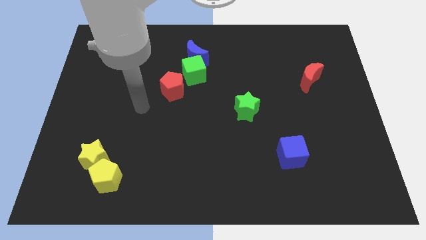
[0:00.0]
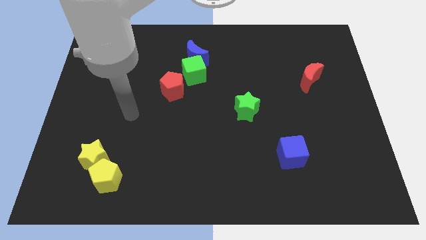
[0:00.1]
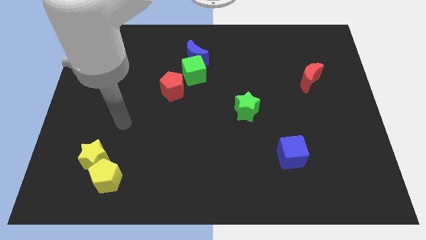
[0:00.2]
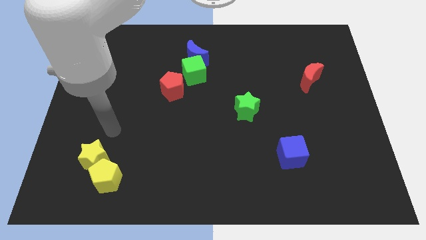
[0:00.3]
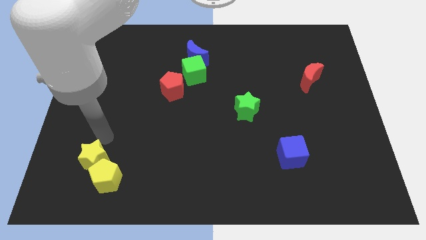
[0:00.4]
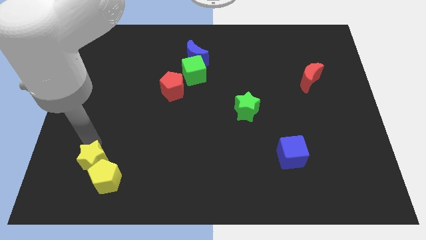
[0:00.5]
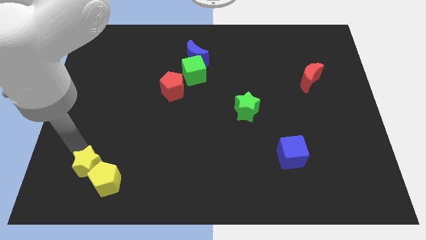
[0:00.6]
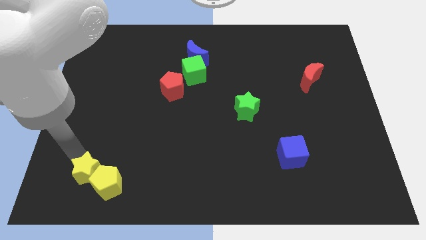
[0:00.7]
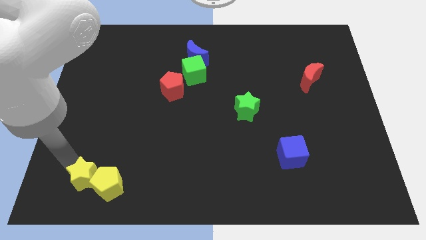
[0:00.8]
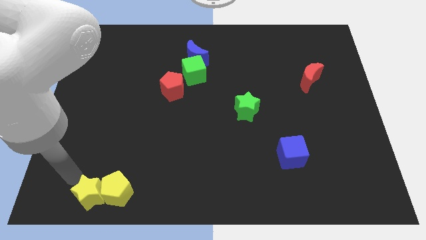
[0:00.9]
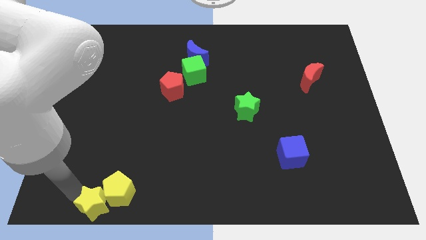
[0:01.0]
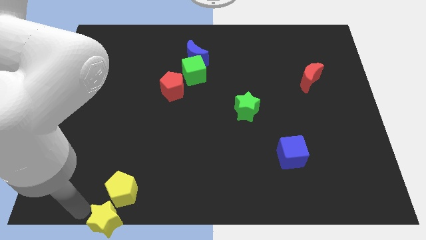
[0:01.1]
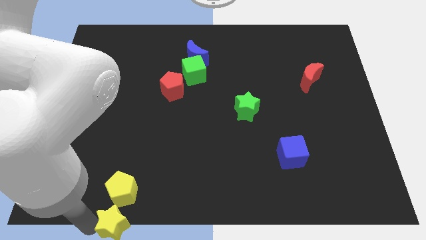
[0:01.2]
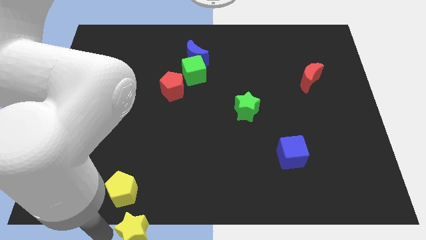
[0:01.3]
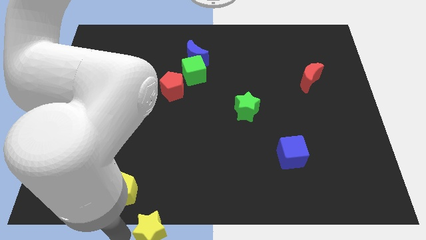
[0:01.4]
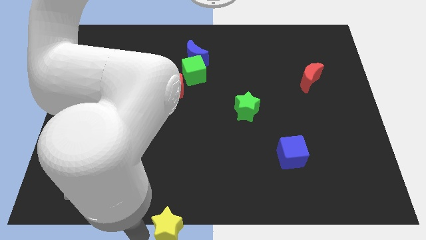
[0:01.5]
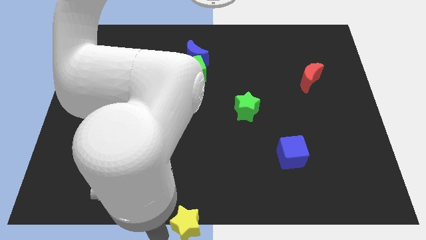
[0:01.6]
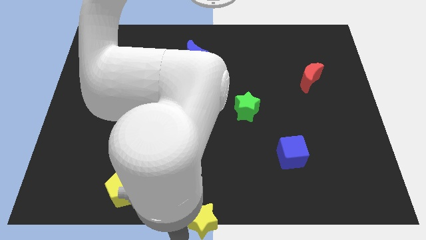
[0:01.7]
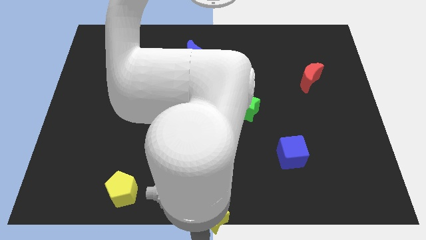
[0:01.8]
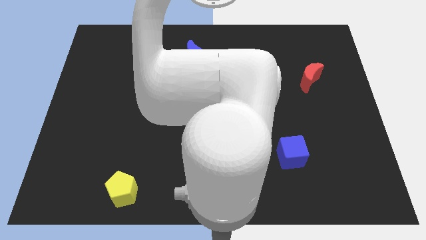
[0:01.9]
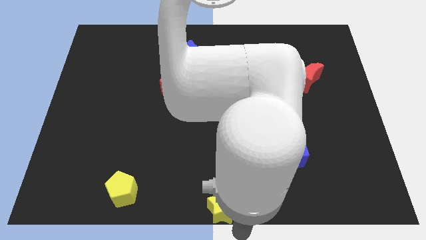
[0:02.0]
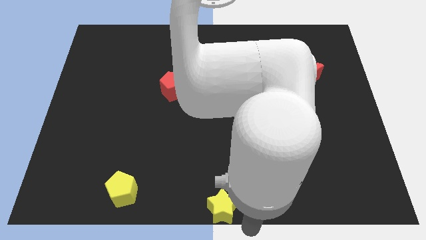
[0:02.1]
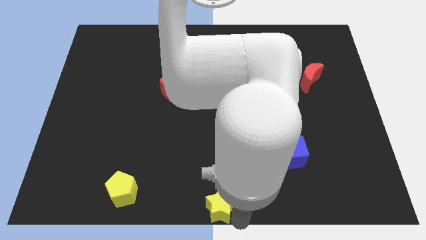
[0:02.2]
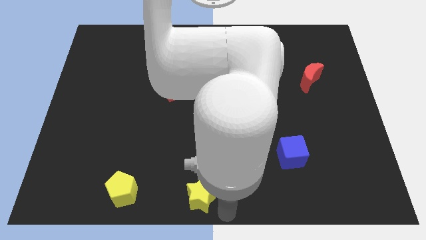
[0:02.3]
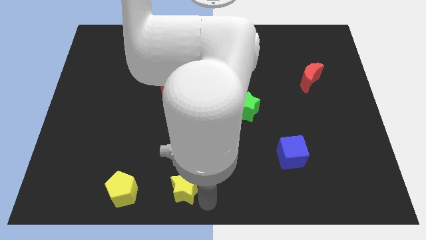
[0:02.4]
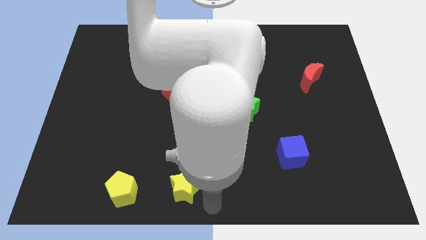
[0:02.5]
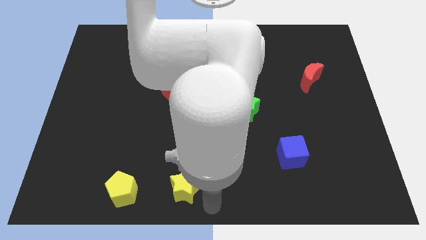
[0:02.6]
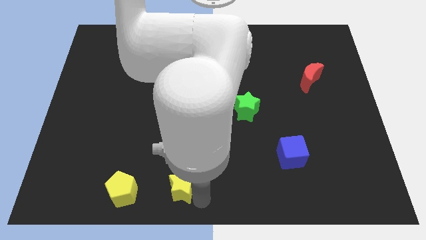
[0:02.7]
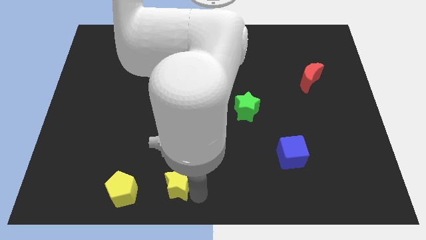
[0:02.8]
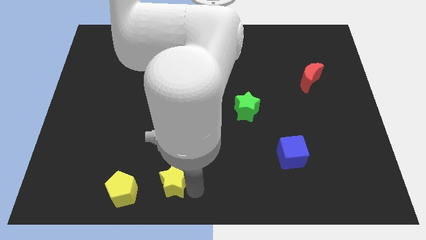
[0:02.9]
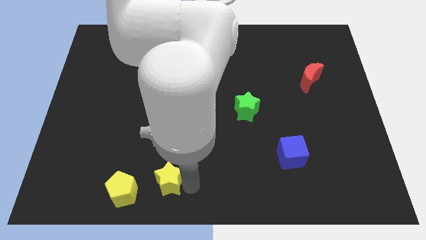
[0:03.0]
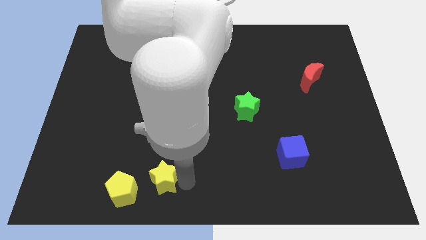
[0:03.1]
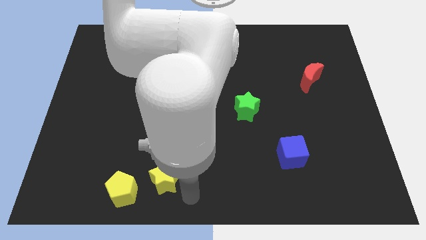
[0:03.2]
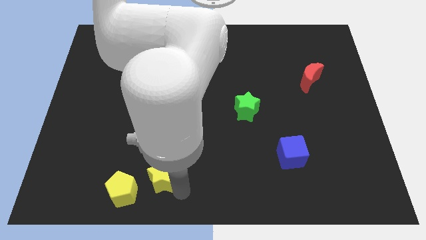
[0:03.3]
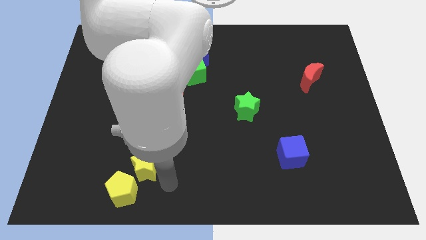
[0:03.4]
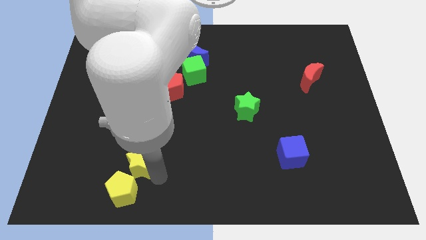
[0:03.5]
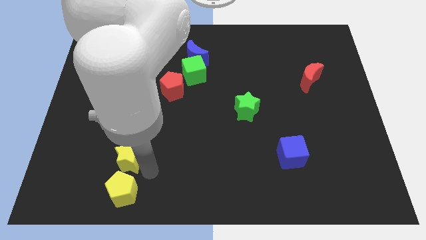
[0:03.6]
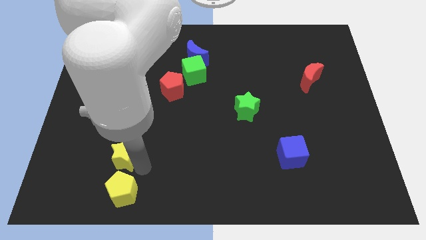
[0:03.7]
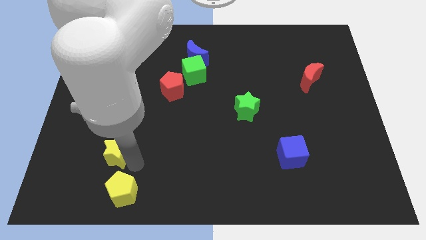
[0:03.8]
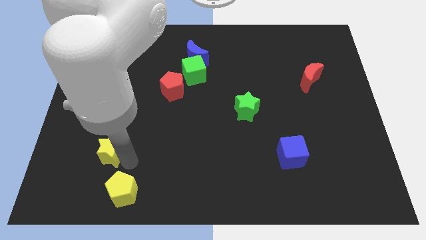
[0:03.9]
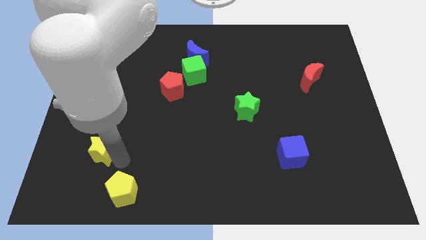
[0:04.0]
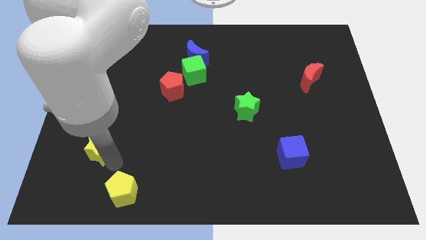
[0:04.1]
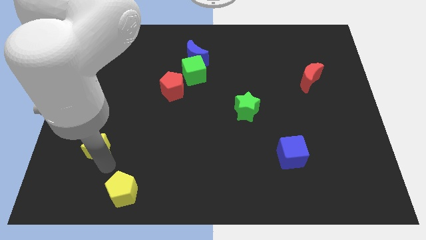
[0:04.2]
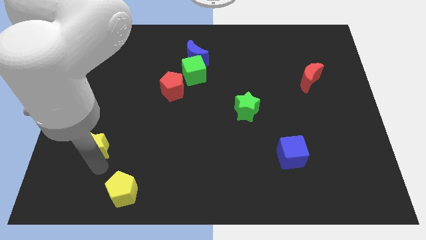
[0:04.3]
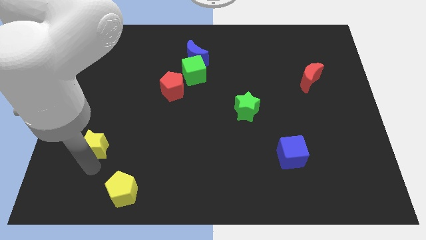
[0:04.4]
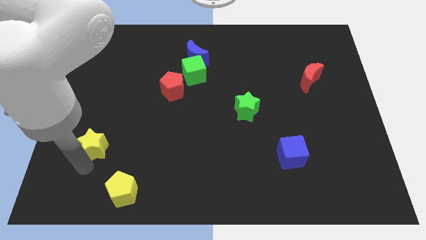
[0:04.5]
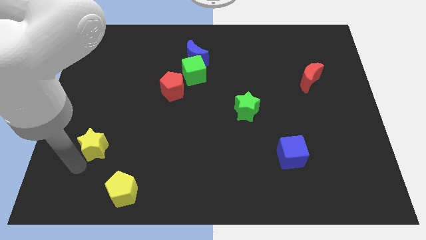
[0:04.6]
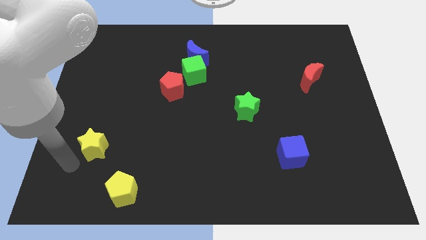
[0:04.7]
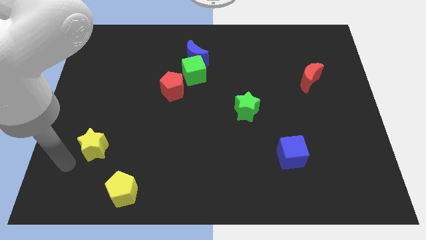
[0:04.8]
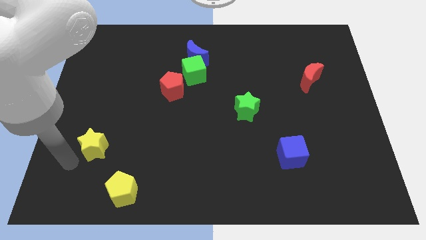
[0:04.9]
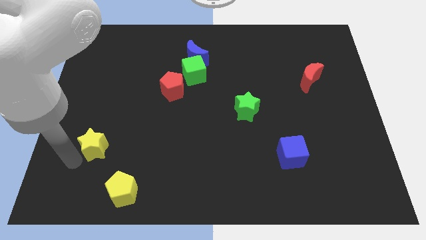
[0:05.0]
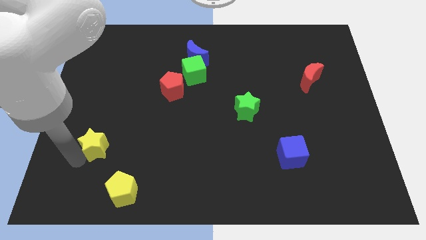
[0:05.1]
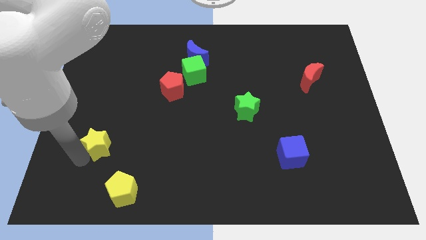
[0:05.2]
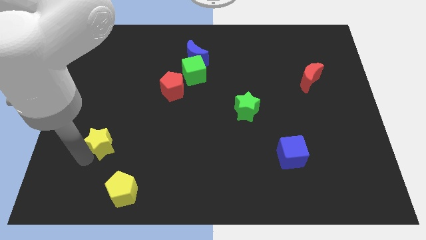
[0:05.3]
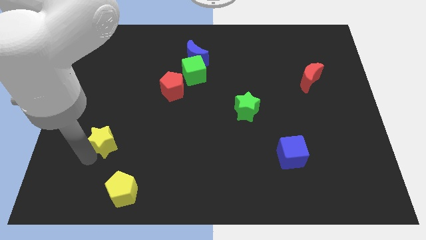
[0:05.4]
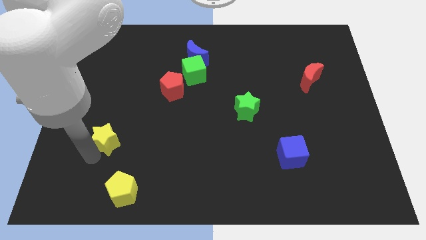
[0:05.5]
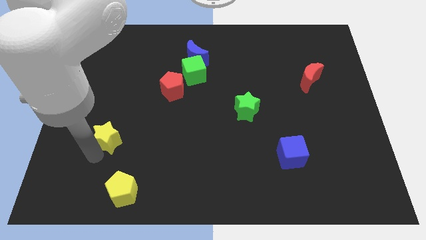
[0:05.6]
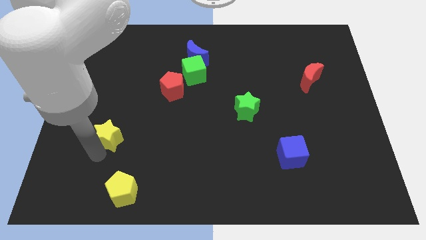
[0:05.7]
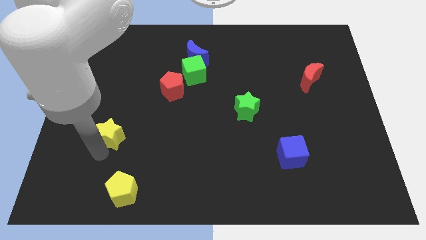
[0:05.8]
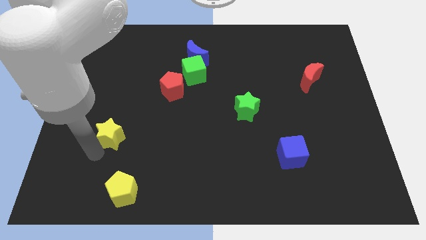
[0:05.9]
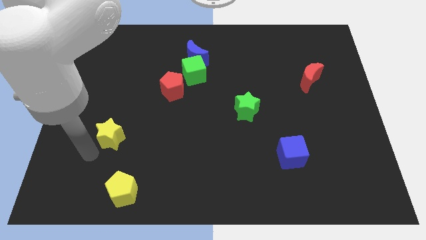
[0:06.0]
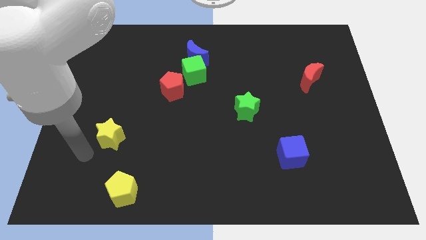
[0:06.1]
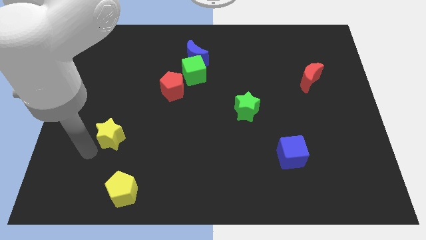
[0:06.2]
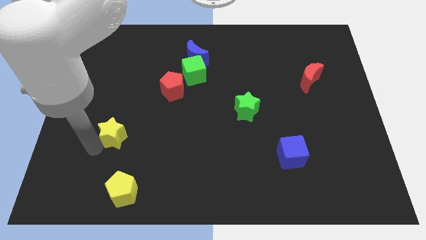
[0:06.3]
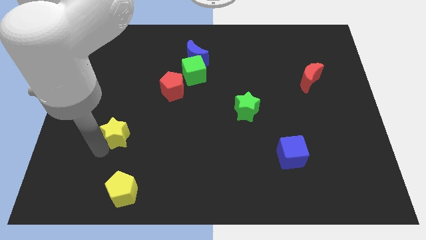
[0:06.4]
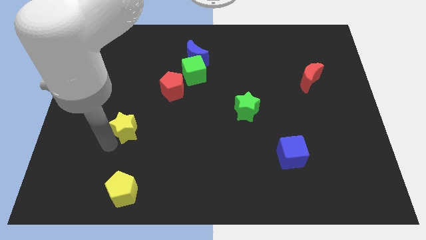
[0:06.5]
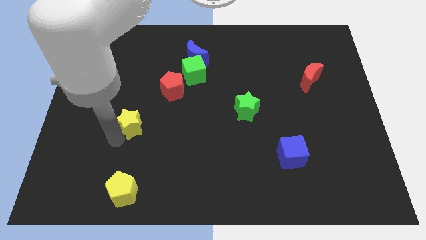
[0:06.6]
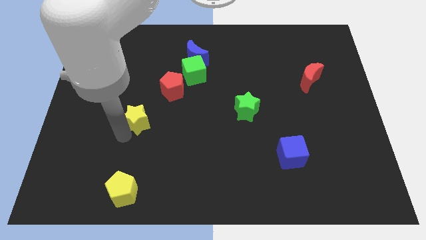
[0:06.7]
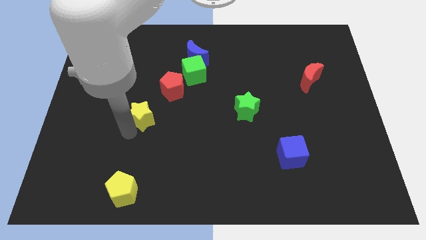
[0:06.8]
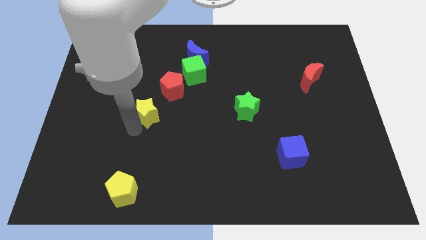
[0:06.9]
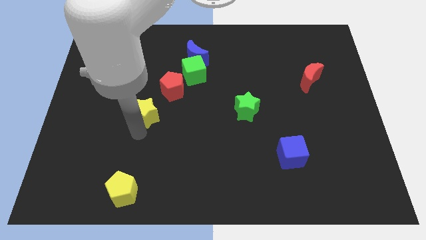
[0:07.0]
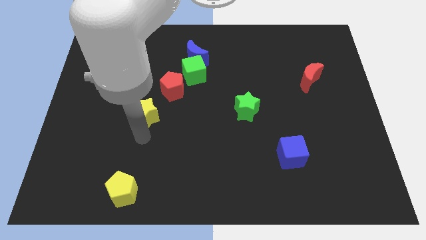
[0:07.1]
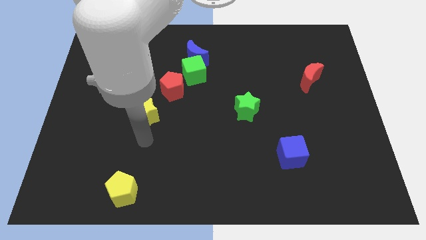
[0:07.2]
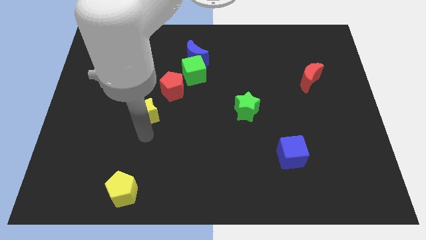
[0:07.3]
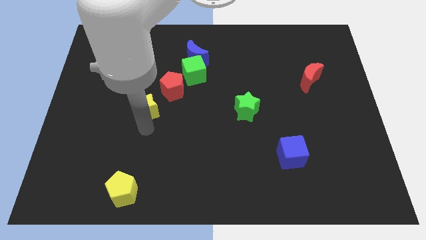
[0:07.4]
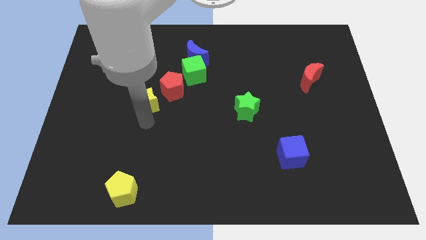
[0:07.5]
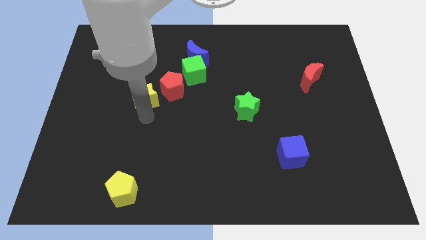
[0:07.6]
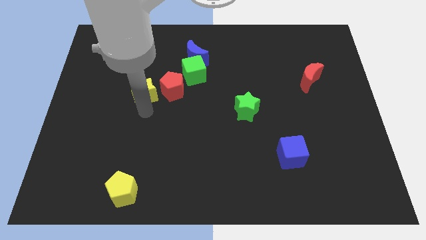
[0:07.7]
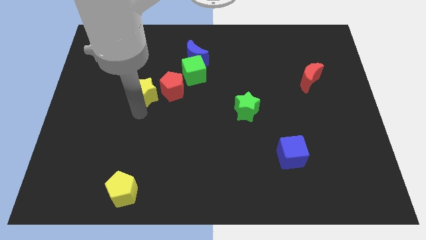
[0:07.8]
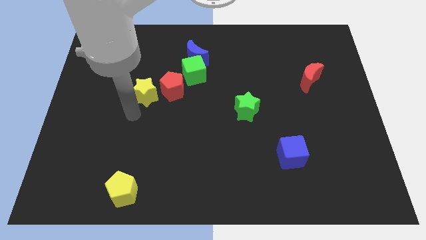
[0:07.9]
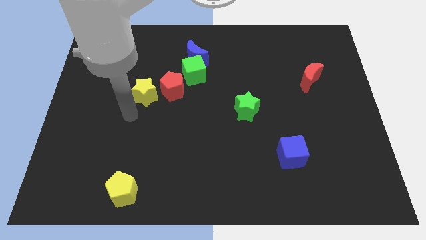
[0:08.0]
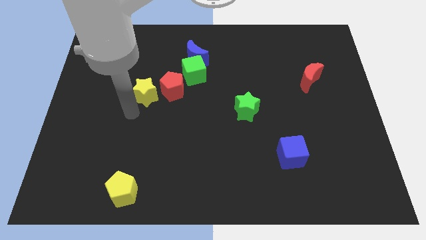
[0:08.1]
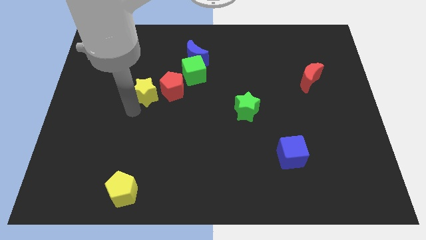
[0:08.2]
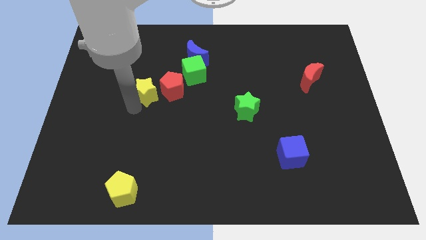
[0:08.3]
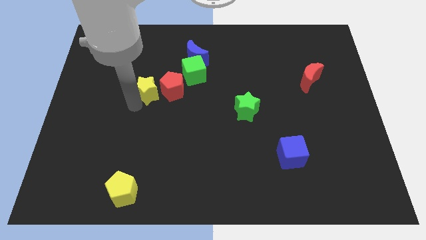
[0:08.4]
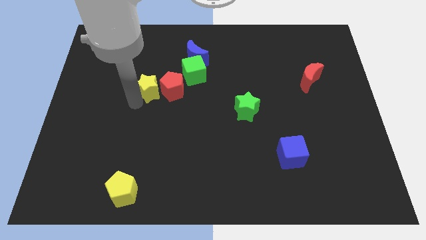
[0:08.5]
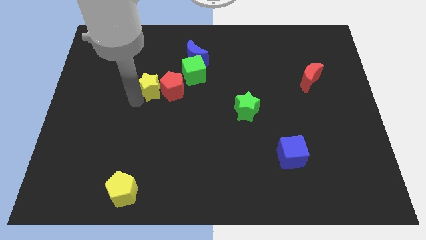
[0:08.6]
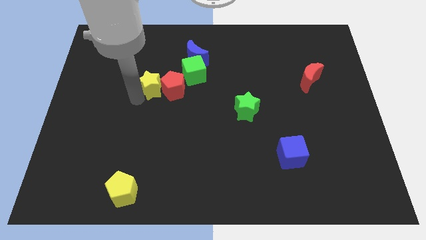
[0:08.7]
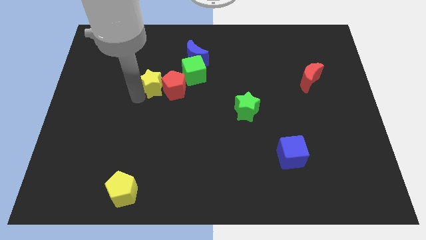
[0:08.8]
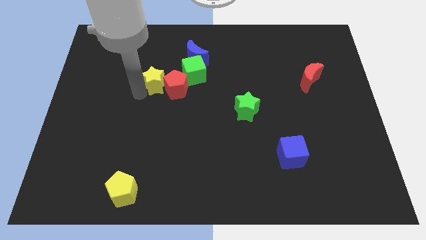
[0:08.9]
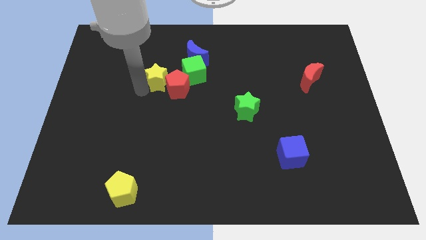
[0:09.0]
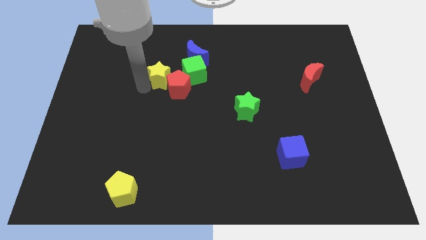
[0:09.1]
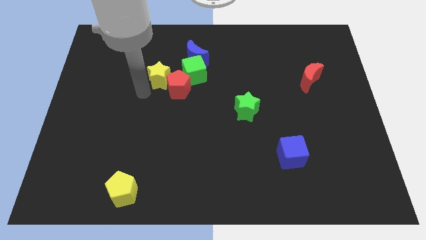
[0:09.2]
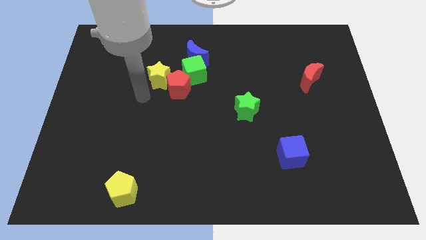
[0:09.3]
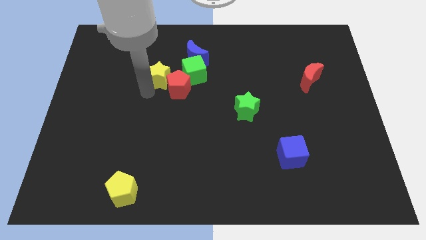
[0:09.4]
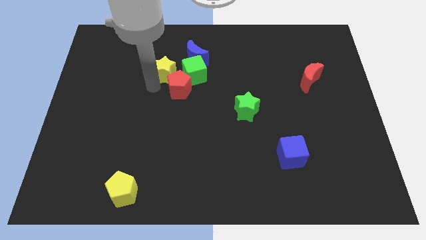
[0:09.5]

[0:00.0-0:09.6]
move the yellow star above the red pentagon
